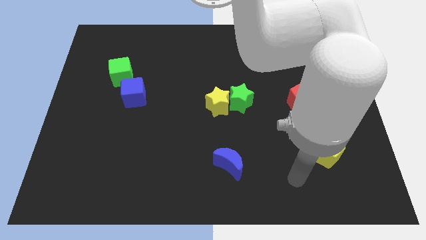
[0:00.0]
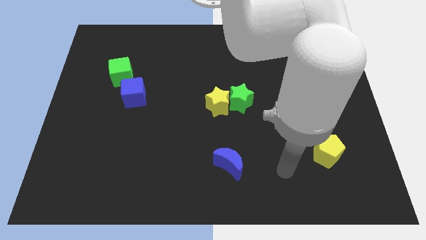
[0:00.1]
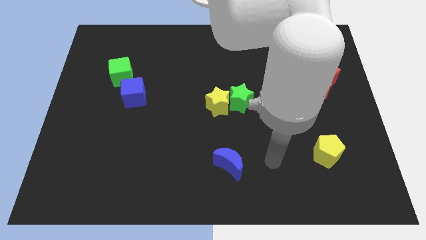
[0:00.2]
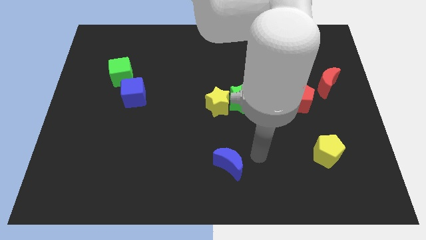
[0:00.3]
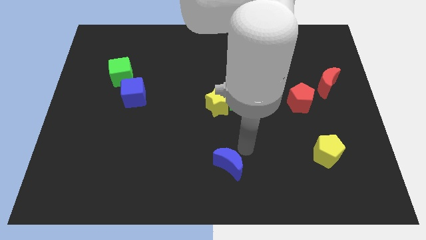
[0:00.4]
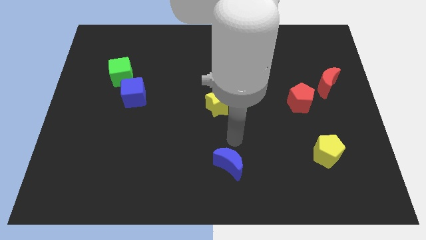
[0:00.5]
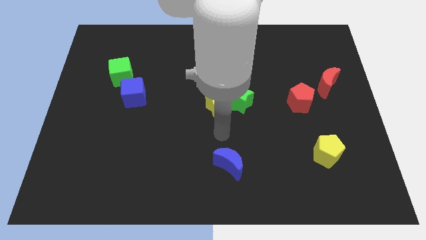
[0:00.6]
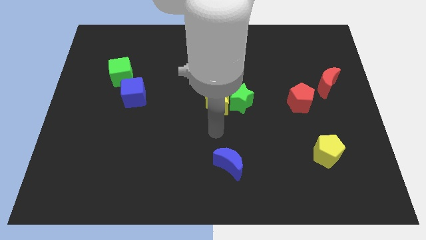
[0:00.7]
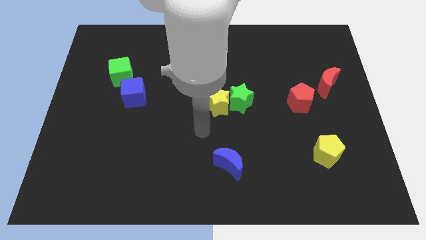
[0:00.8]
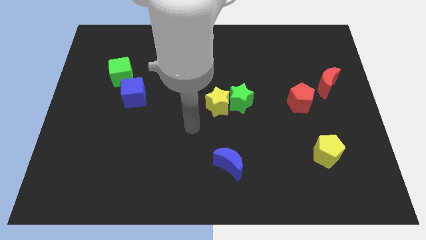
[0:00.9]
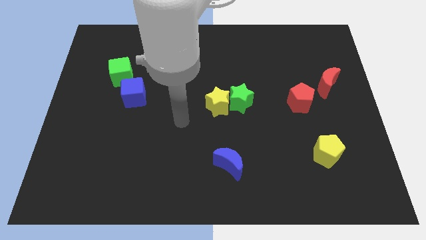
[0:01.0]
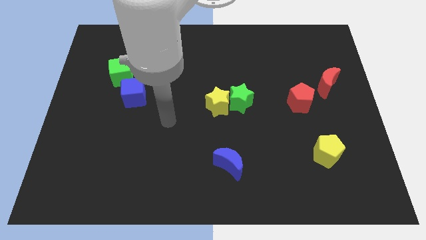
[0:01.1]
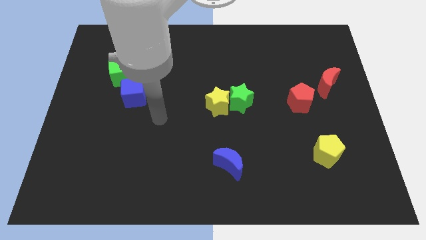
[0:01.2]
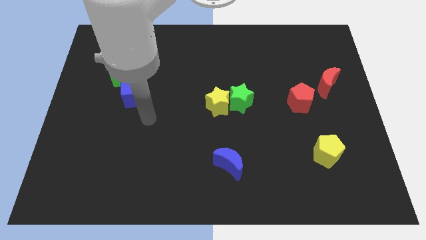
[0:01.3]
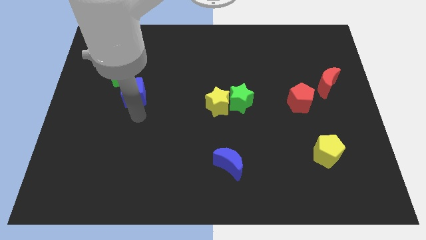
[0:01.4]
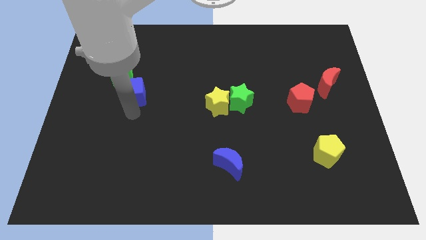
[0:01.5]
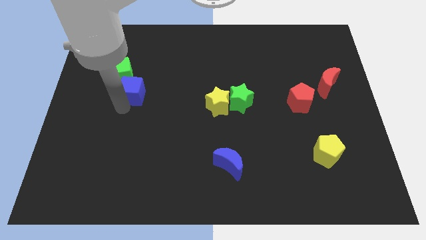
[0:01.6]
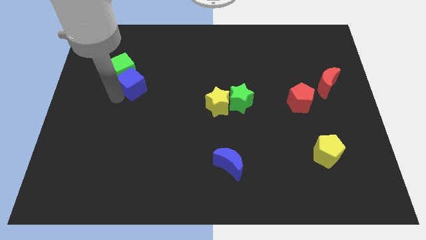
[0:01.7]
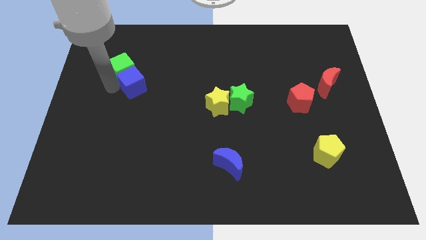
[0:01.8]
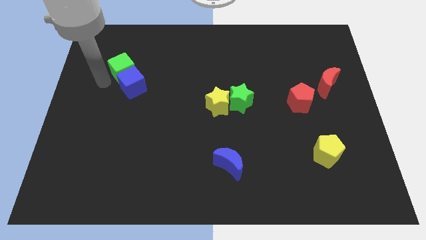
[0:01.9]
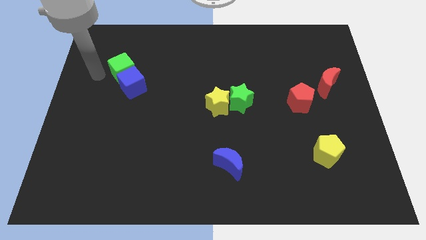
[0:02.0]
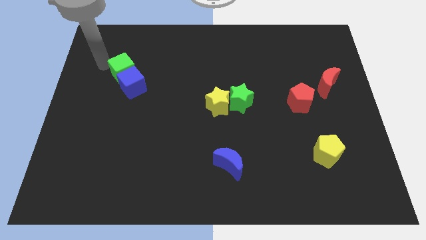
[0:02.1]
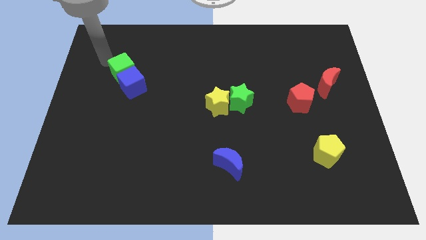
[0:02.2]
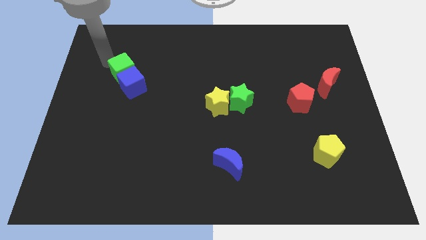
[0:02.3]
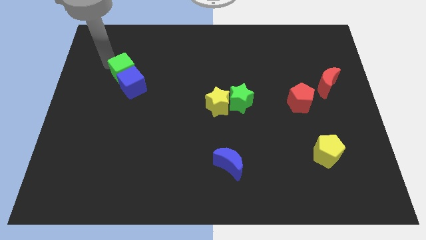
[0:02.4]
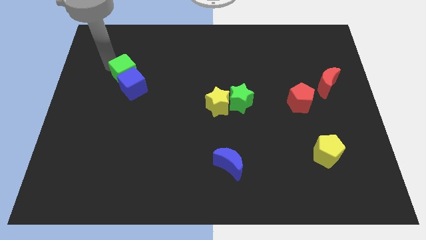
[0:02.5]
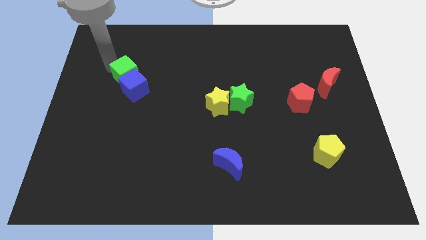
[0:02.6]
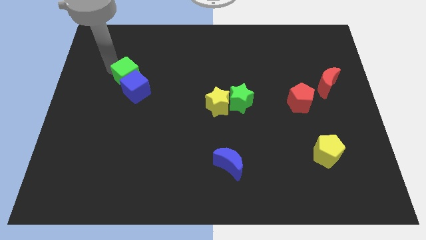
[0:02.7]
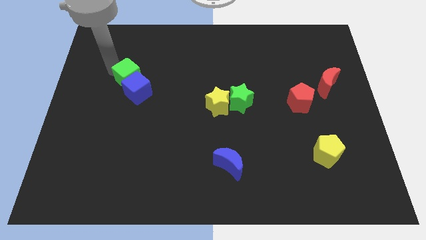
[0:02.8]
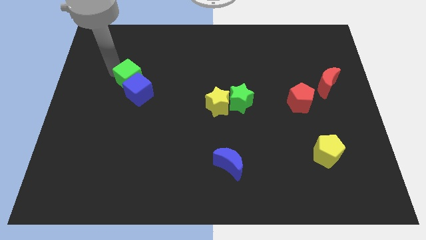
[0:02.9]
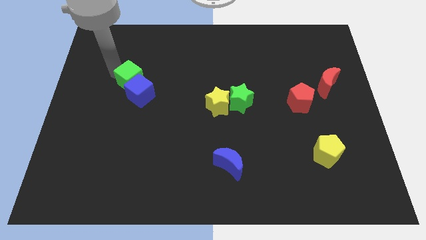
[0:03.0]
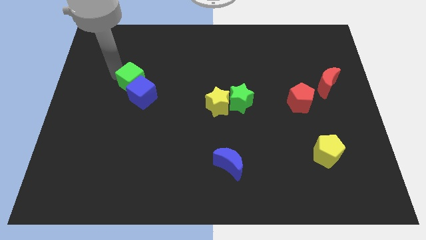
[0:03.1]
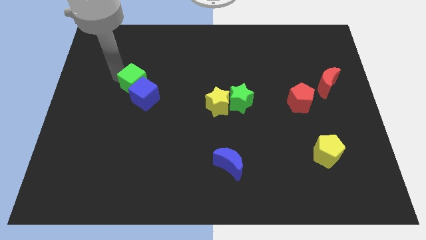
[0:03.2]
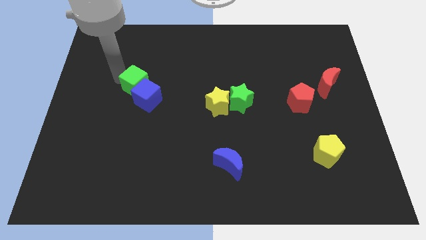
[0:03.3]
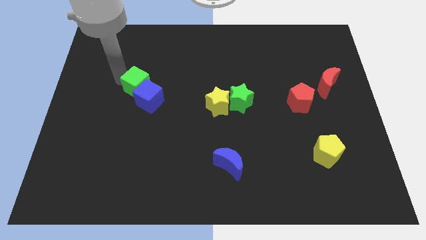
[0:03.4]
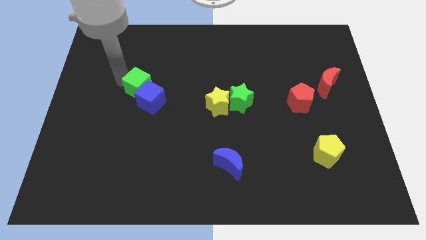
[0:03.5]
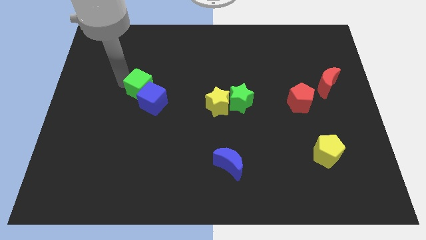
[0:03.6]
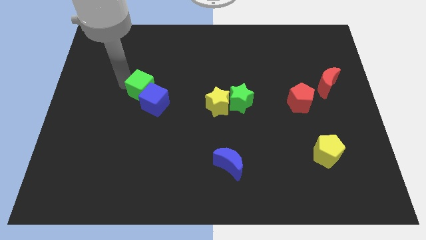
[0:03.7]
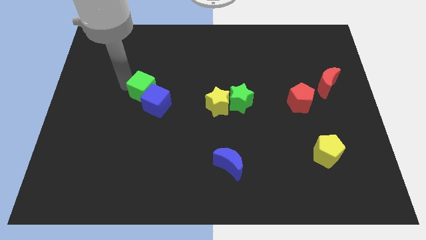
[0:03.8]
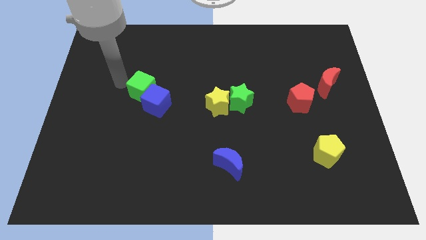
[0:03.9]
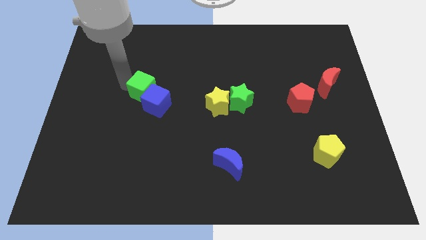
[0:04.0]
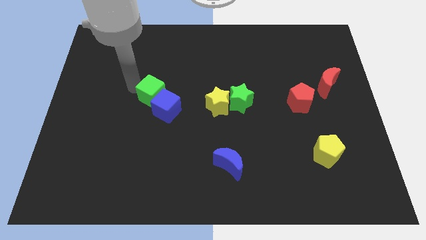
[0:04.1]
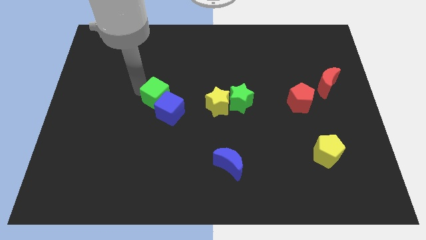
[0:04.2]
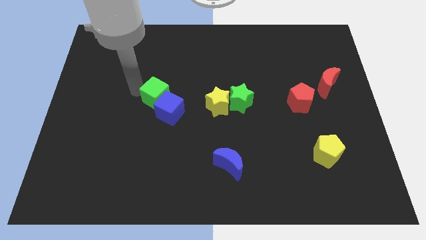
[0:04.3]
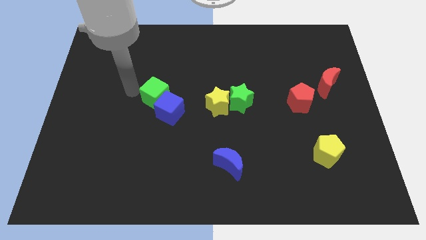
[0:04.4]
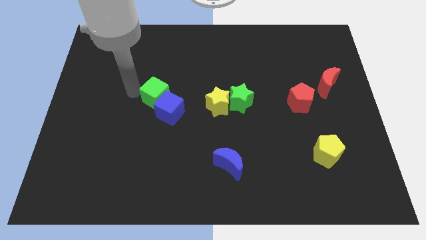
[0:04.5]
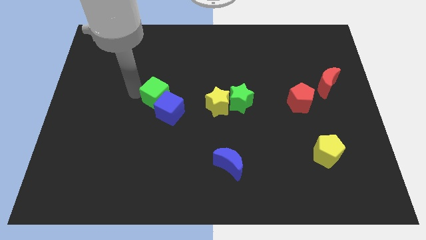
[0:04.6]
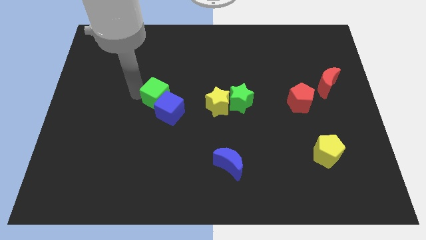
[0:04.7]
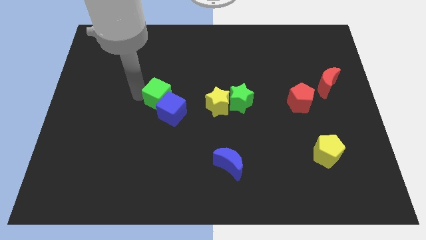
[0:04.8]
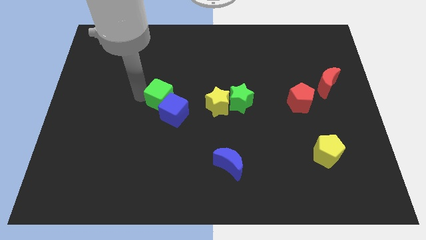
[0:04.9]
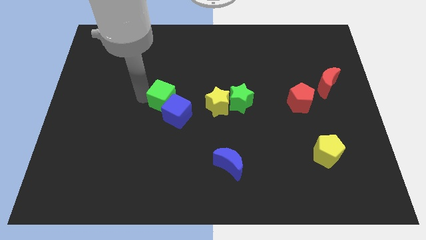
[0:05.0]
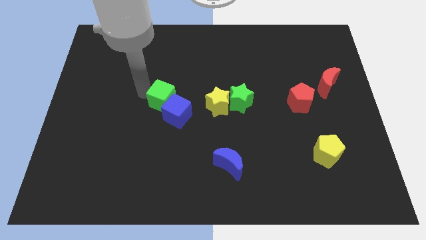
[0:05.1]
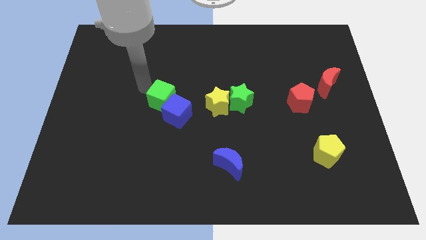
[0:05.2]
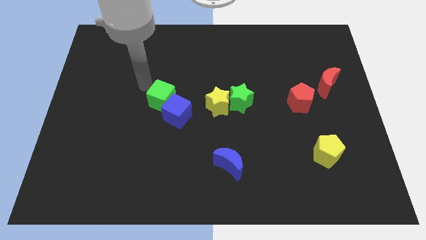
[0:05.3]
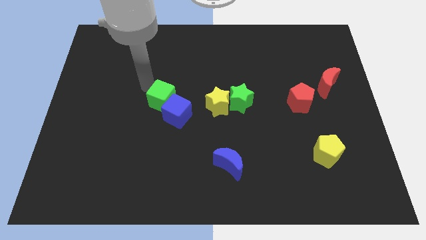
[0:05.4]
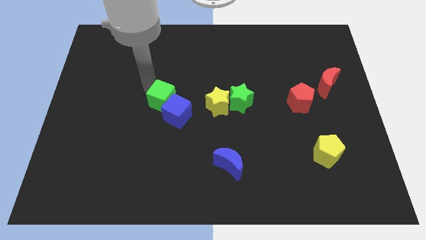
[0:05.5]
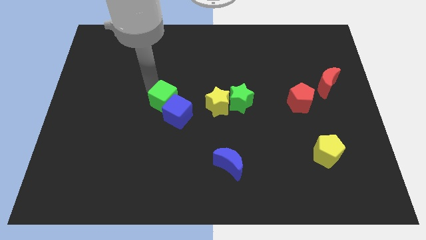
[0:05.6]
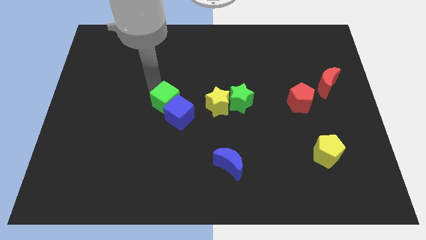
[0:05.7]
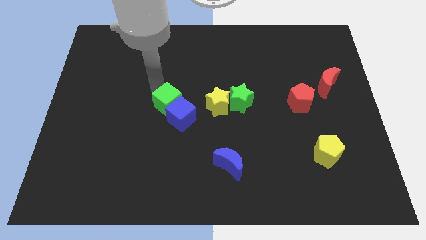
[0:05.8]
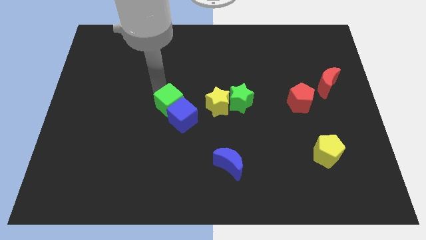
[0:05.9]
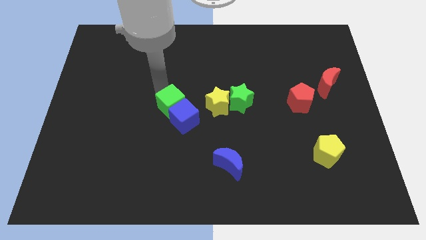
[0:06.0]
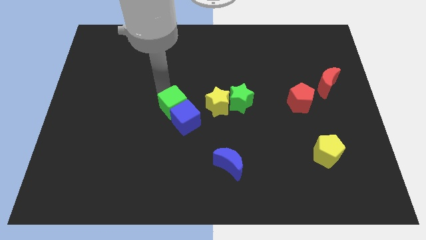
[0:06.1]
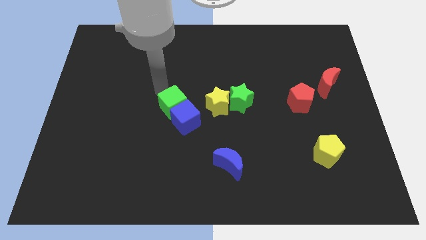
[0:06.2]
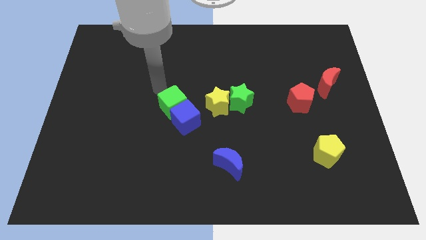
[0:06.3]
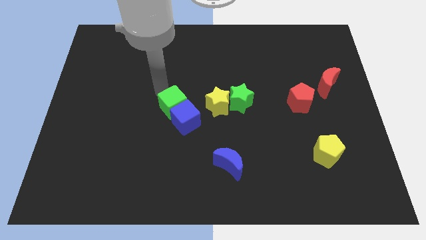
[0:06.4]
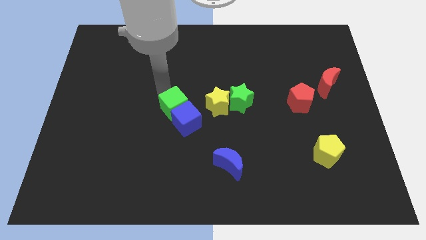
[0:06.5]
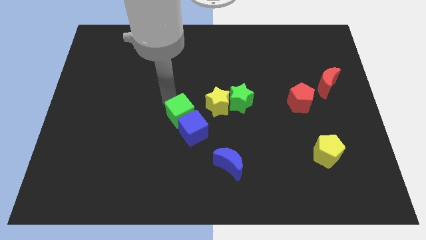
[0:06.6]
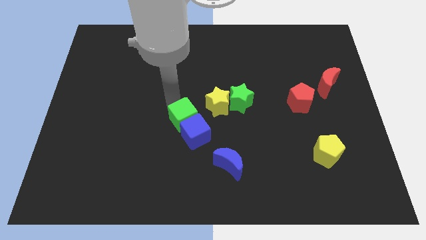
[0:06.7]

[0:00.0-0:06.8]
slide the green cube diagonally downwards and to the right

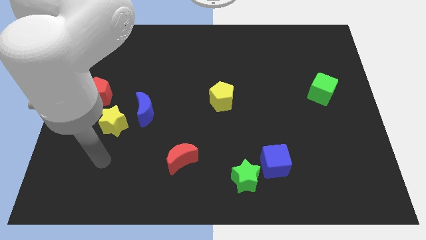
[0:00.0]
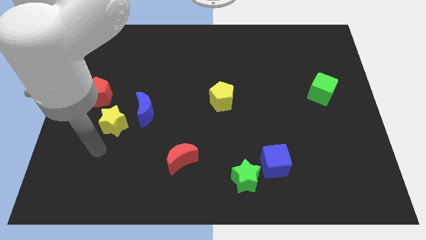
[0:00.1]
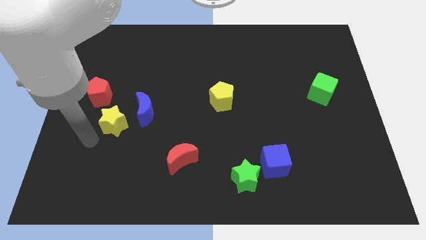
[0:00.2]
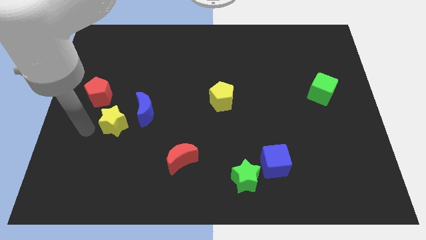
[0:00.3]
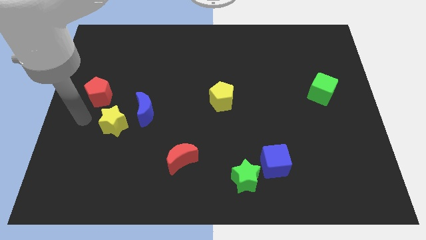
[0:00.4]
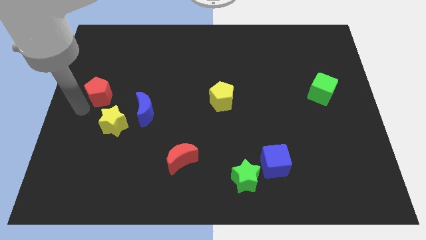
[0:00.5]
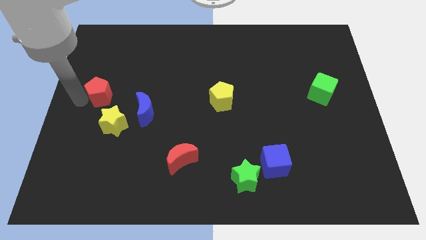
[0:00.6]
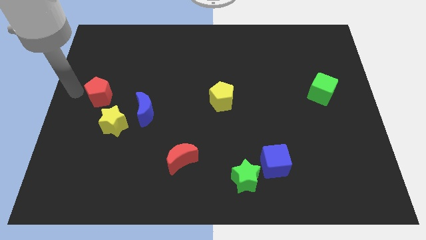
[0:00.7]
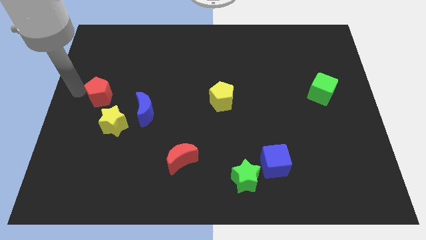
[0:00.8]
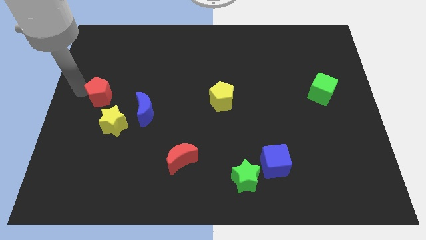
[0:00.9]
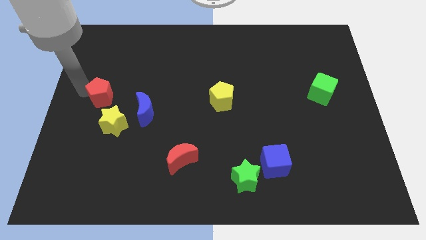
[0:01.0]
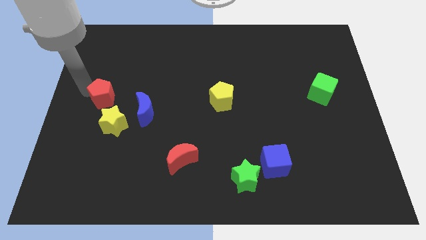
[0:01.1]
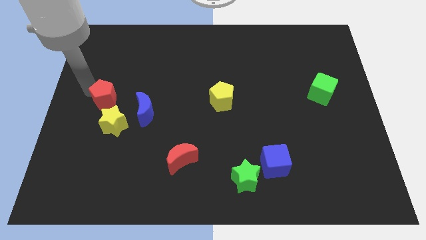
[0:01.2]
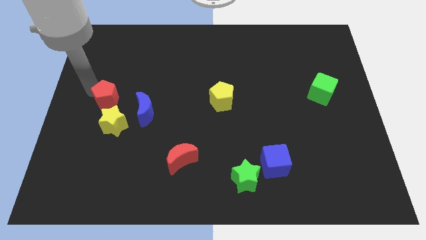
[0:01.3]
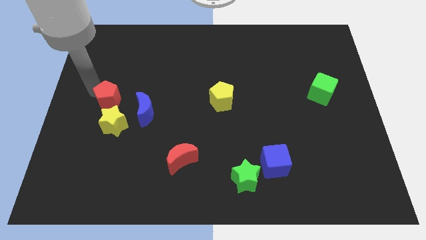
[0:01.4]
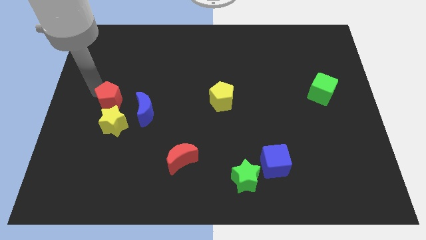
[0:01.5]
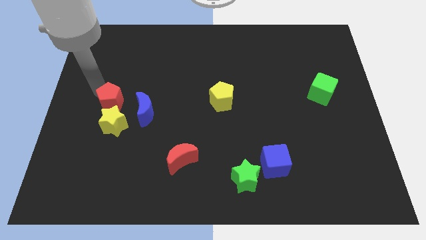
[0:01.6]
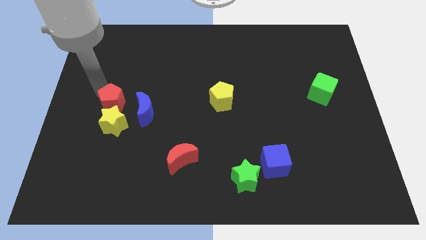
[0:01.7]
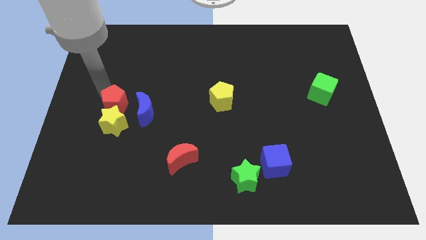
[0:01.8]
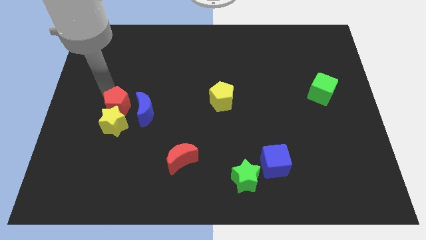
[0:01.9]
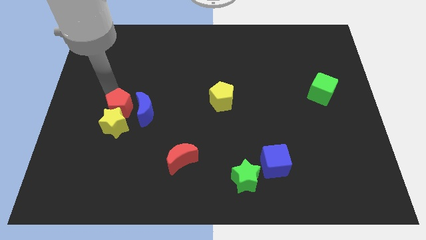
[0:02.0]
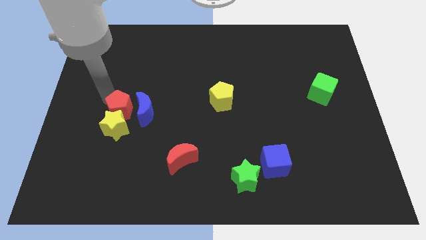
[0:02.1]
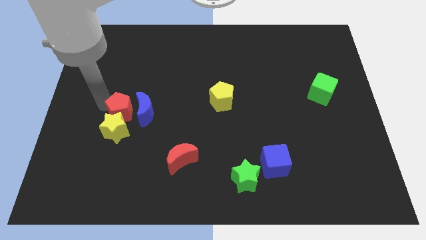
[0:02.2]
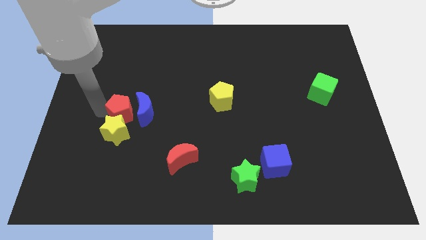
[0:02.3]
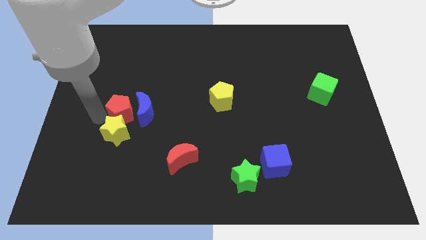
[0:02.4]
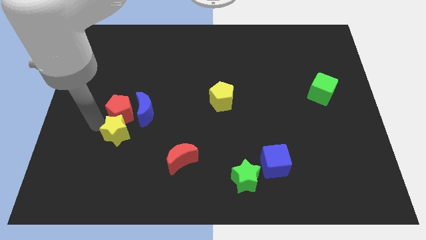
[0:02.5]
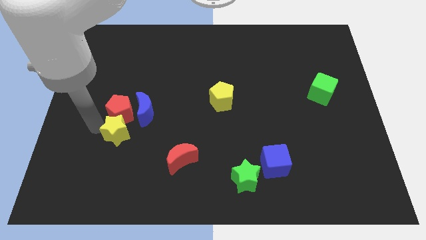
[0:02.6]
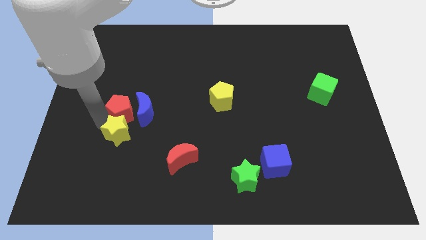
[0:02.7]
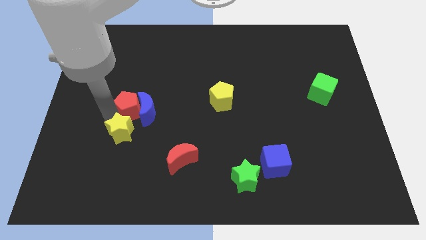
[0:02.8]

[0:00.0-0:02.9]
move the red pentagon to the right a bit
